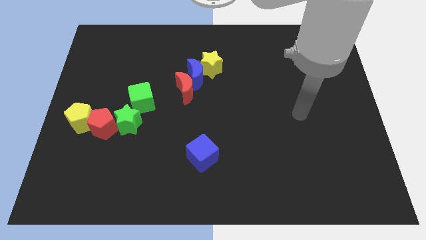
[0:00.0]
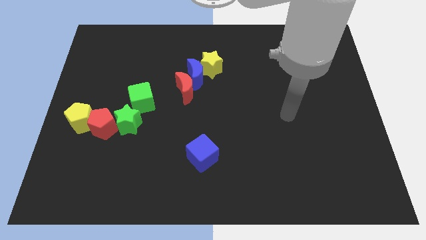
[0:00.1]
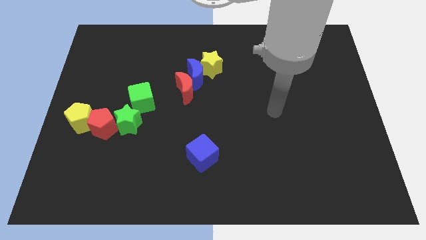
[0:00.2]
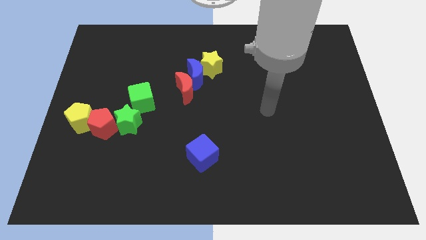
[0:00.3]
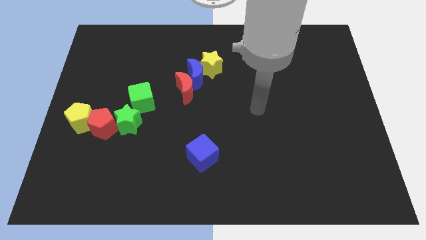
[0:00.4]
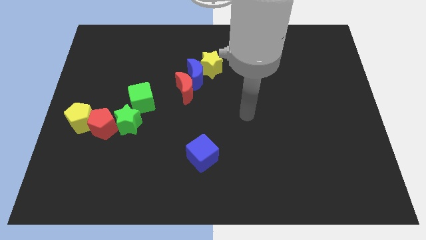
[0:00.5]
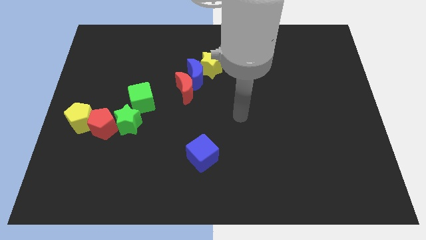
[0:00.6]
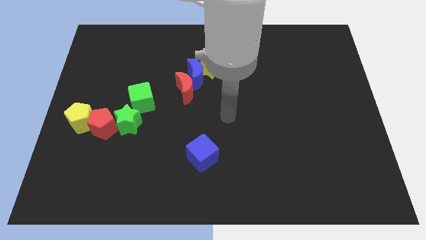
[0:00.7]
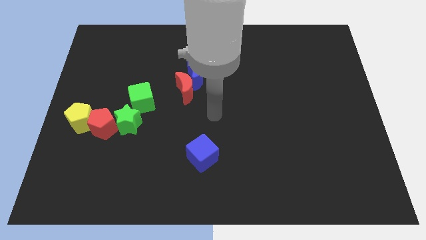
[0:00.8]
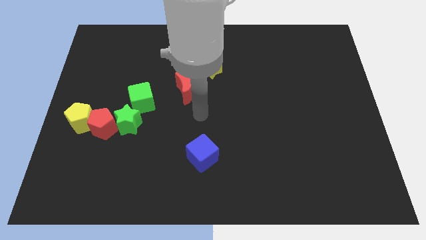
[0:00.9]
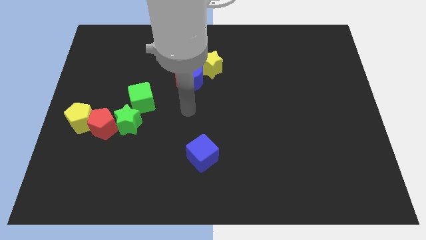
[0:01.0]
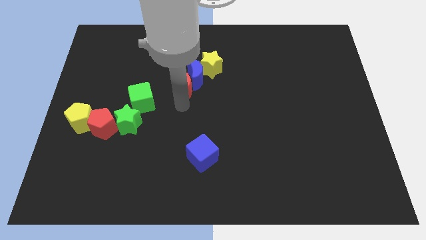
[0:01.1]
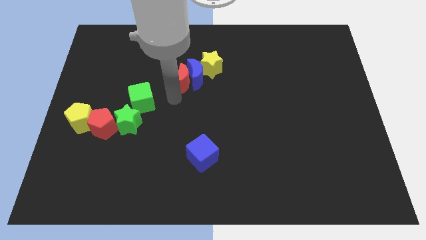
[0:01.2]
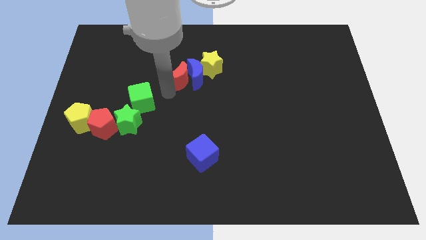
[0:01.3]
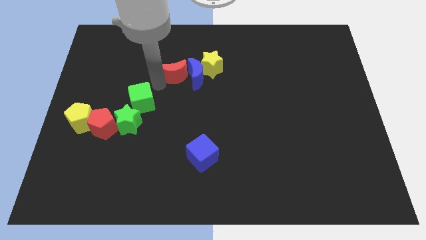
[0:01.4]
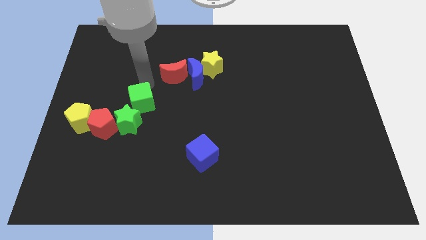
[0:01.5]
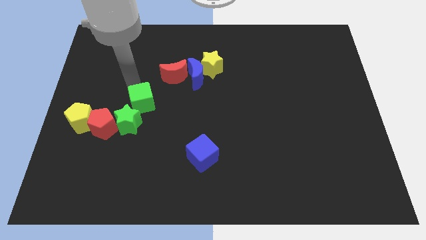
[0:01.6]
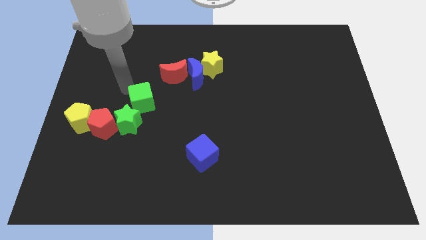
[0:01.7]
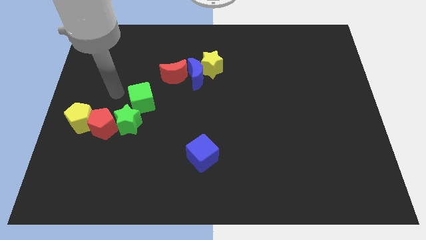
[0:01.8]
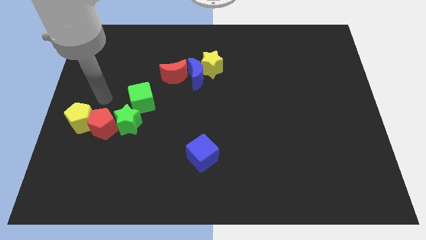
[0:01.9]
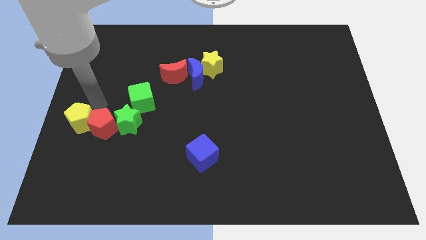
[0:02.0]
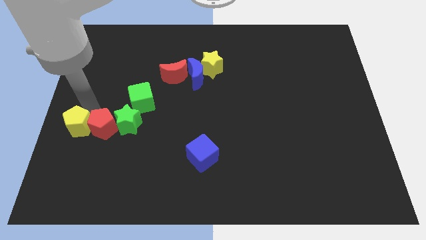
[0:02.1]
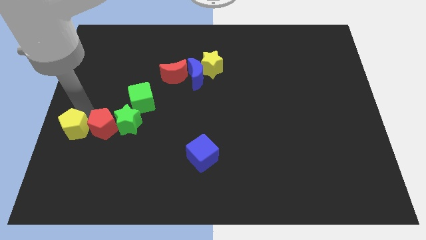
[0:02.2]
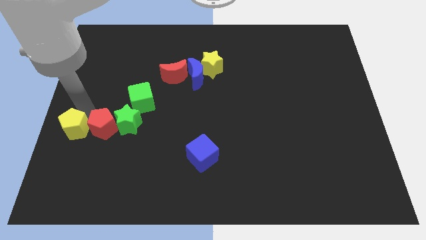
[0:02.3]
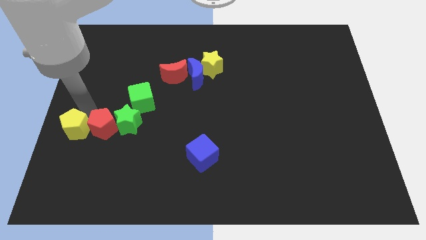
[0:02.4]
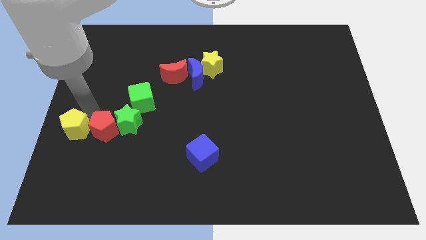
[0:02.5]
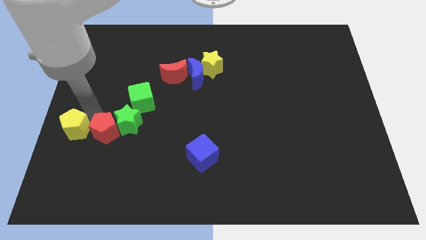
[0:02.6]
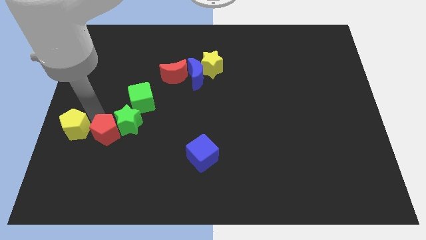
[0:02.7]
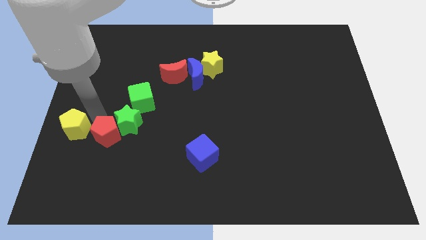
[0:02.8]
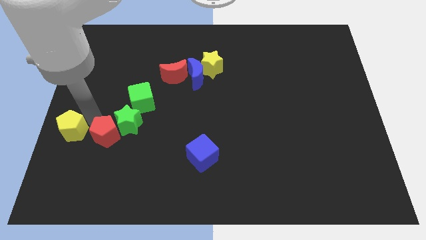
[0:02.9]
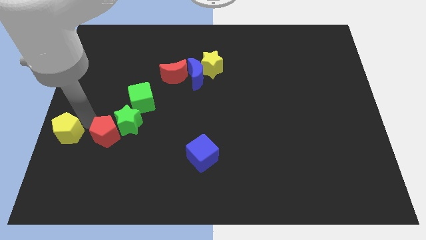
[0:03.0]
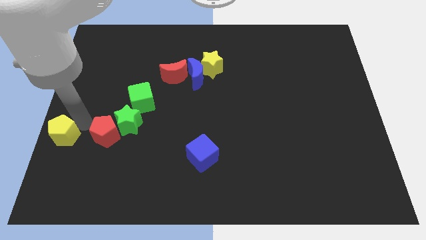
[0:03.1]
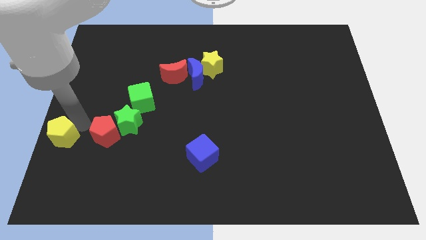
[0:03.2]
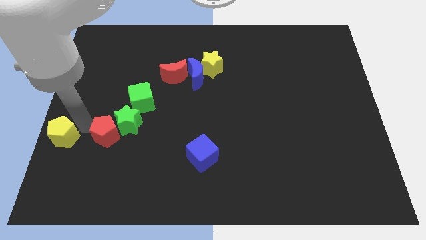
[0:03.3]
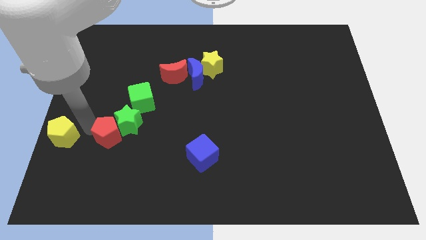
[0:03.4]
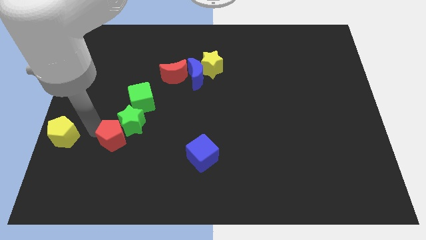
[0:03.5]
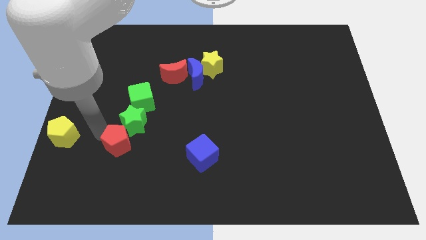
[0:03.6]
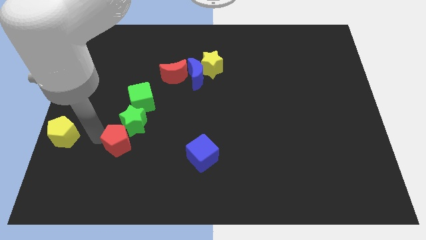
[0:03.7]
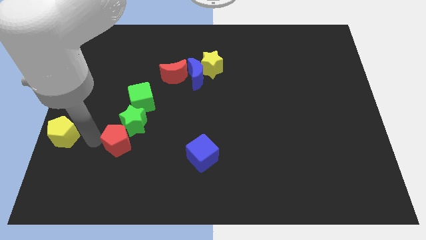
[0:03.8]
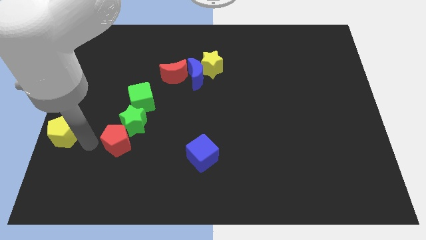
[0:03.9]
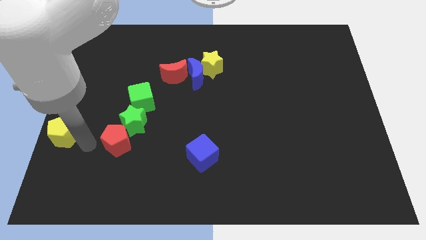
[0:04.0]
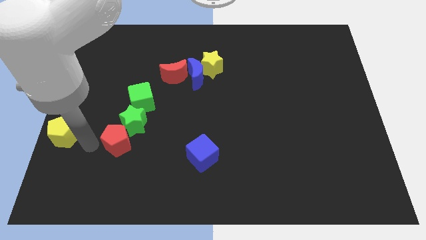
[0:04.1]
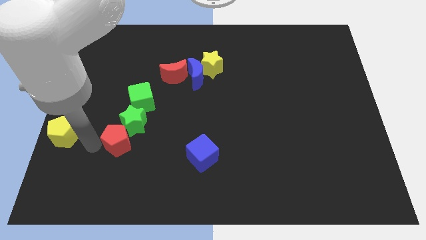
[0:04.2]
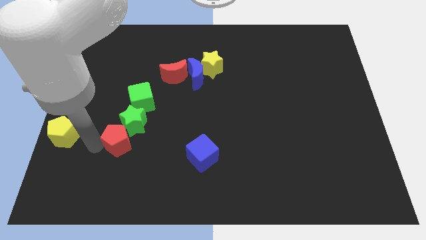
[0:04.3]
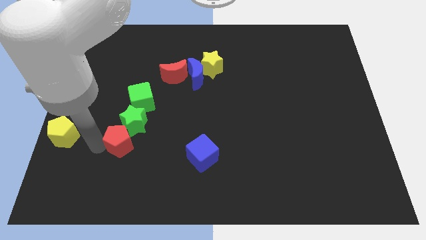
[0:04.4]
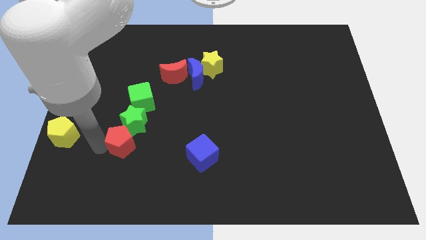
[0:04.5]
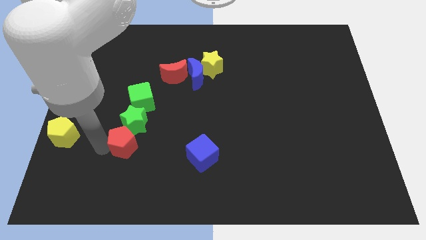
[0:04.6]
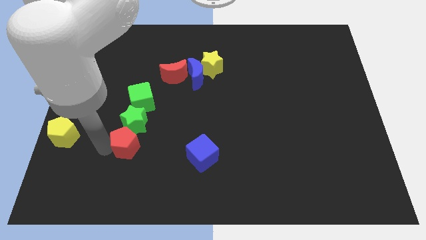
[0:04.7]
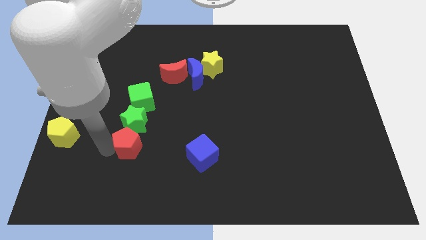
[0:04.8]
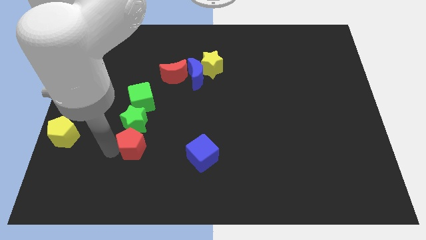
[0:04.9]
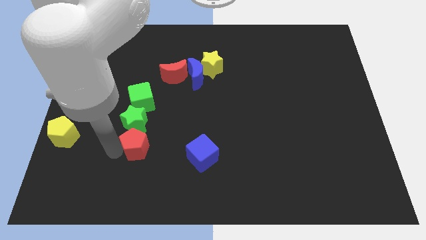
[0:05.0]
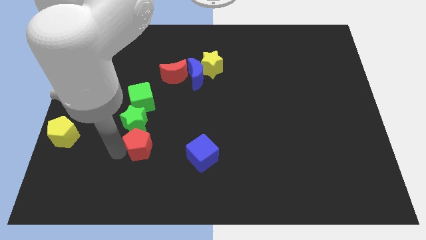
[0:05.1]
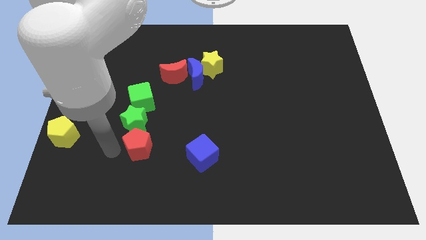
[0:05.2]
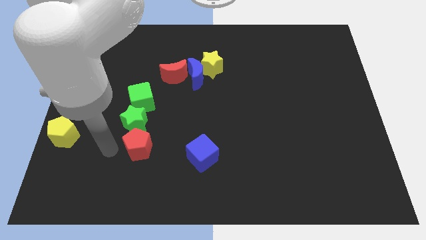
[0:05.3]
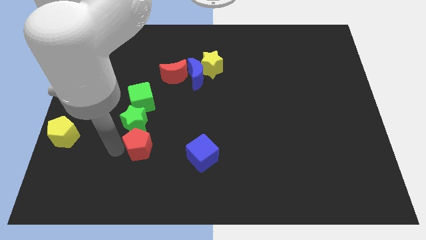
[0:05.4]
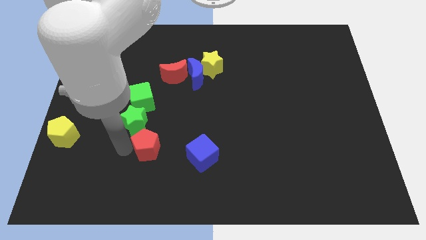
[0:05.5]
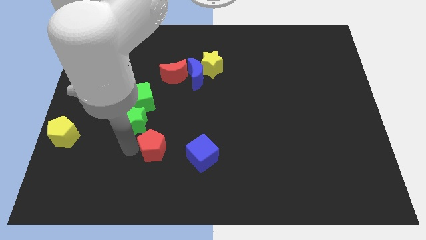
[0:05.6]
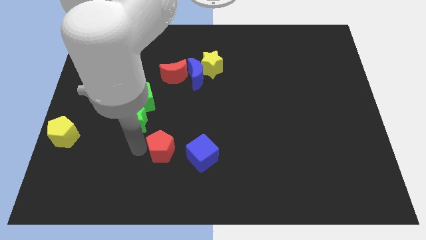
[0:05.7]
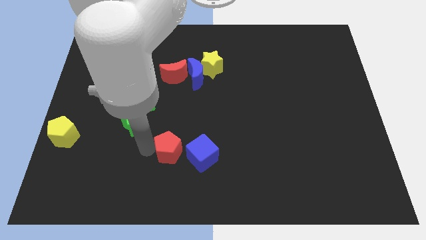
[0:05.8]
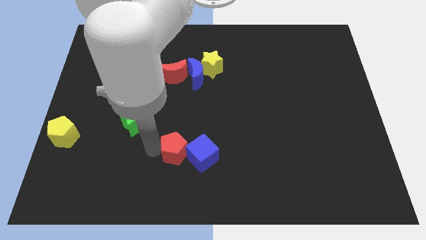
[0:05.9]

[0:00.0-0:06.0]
put the red pentagon next to the blue cube

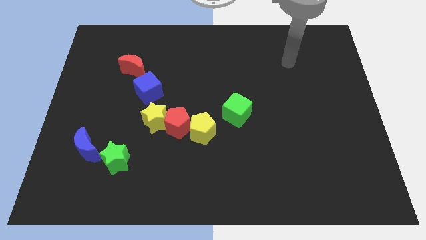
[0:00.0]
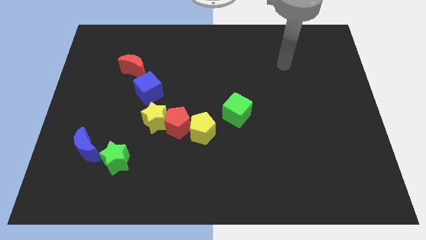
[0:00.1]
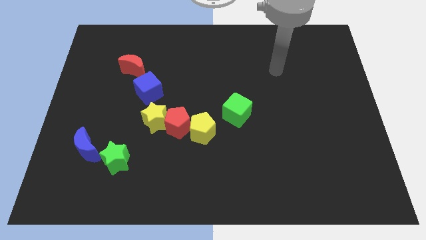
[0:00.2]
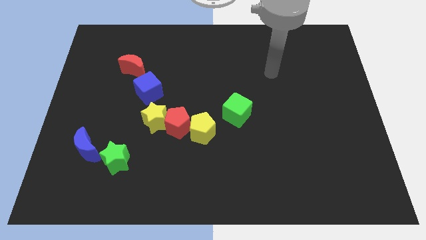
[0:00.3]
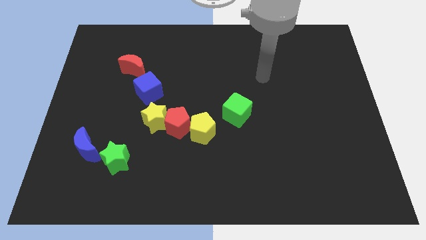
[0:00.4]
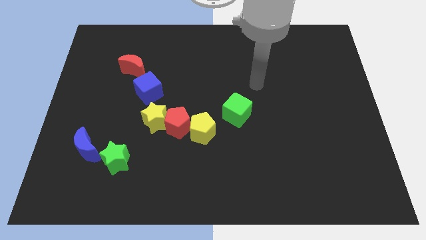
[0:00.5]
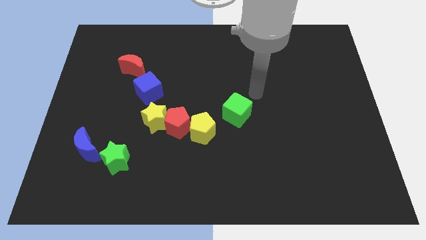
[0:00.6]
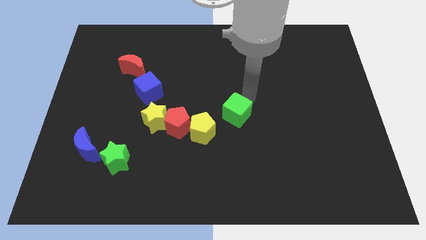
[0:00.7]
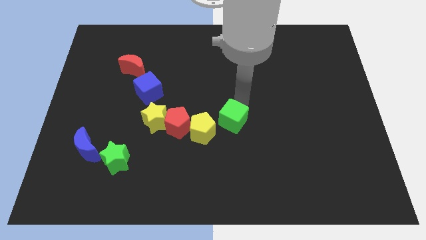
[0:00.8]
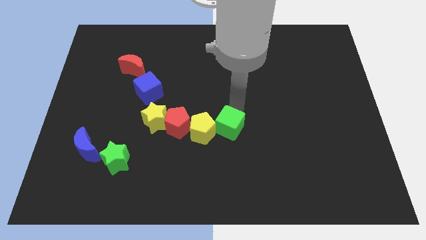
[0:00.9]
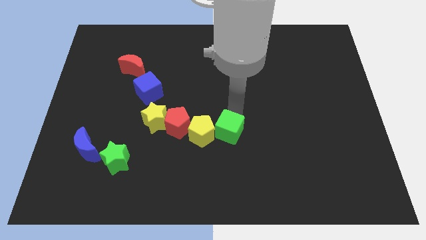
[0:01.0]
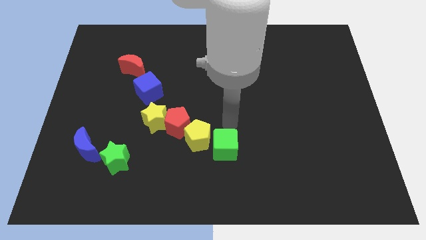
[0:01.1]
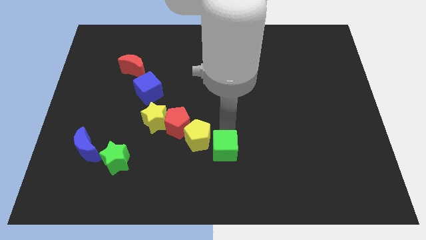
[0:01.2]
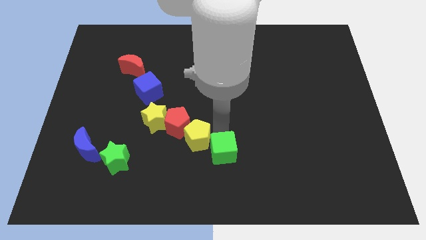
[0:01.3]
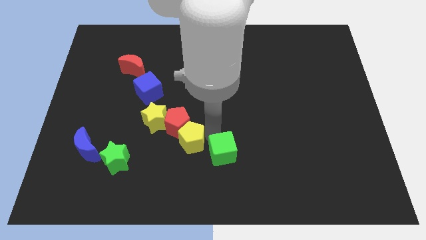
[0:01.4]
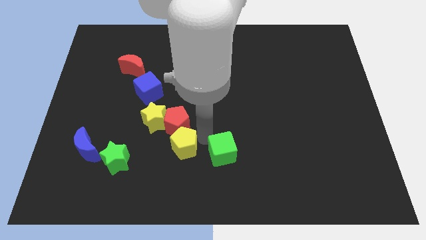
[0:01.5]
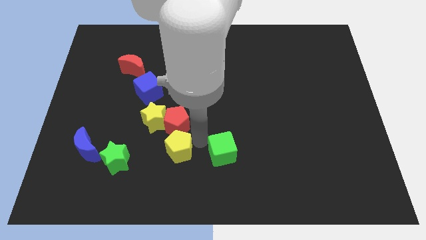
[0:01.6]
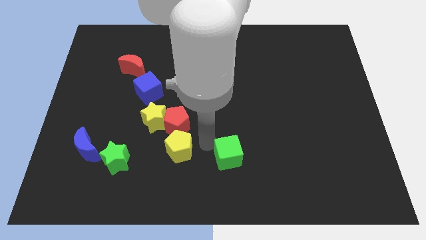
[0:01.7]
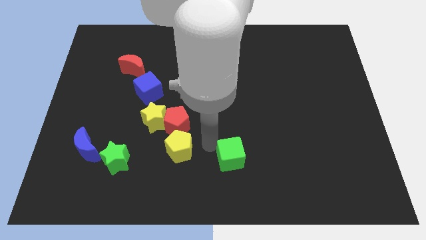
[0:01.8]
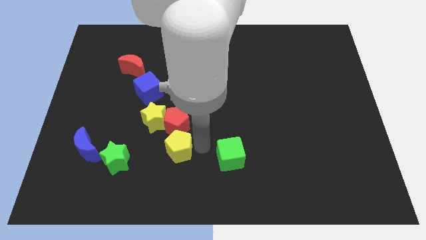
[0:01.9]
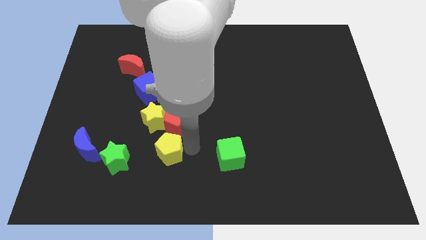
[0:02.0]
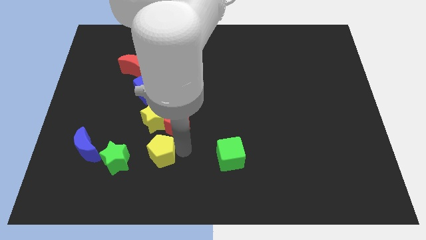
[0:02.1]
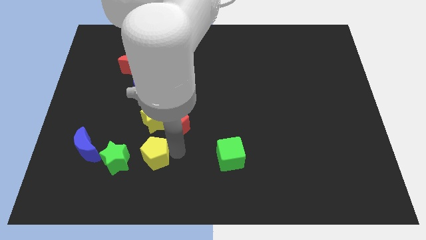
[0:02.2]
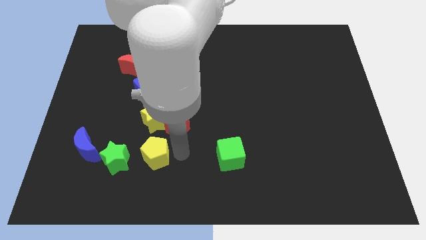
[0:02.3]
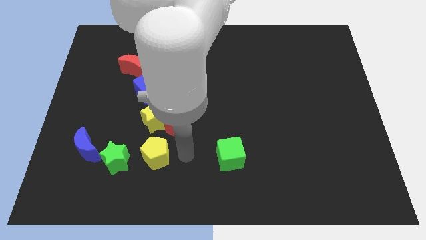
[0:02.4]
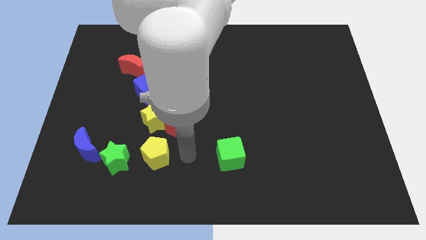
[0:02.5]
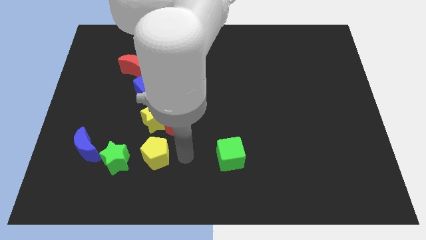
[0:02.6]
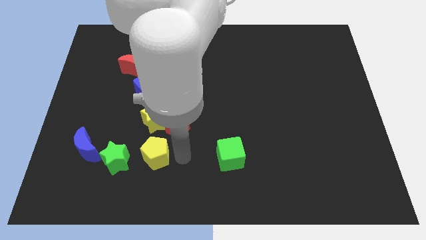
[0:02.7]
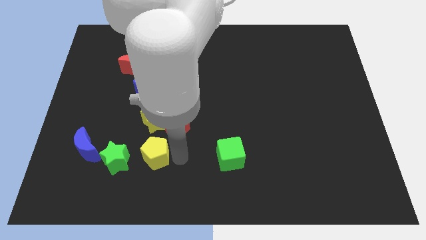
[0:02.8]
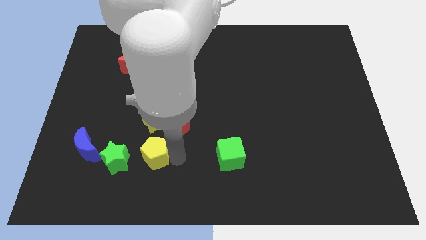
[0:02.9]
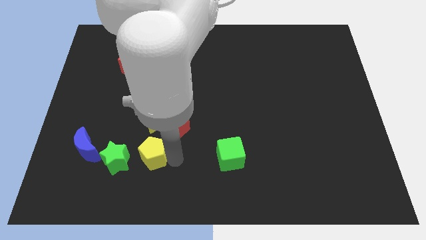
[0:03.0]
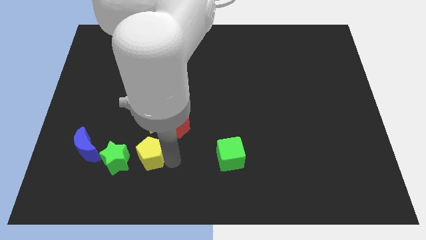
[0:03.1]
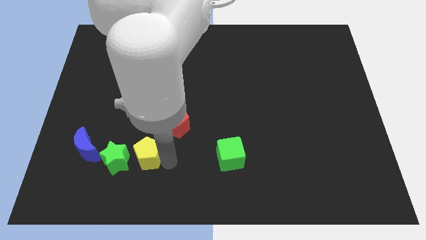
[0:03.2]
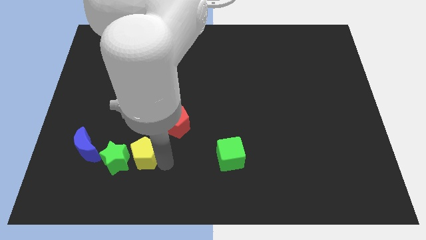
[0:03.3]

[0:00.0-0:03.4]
move the yellow pentagon towards the green star
